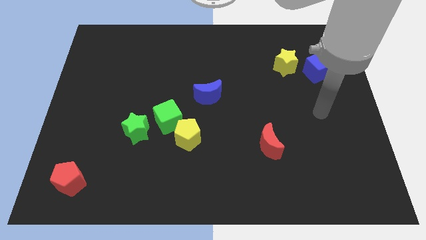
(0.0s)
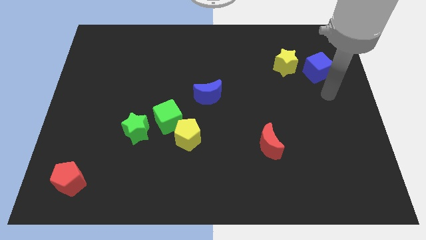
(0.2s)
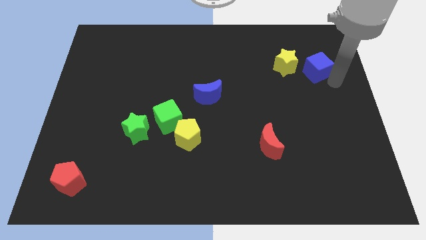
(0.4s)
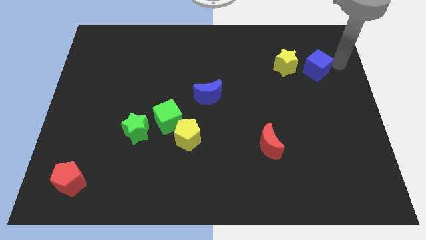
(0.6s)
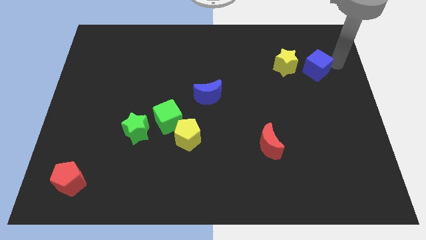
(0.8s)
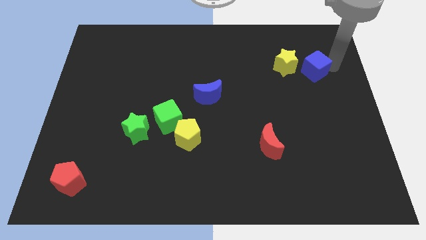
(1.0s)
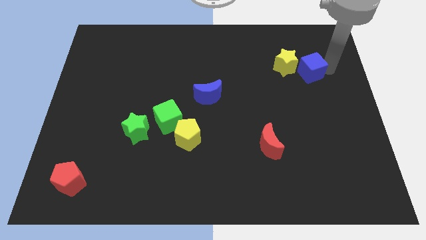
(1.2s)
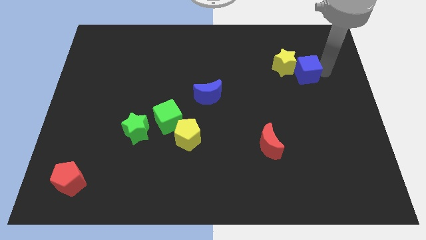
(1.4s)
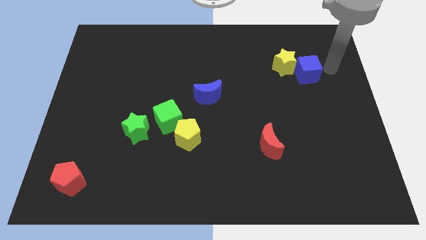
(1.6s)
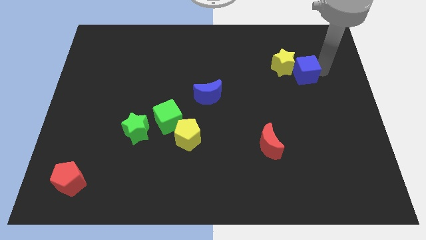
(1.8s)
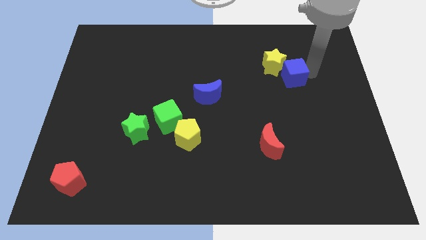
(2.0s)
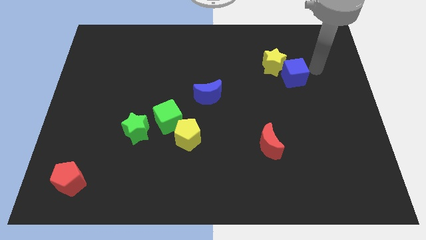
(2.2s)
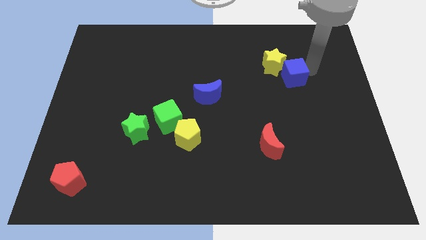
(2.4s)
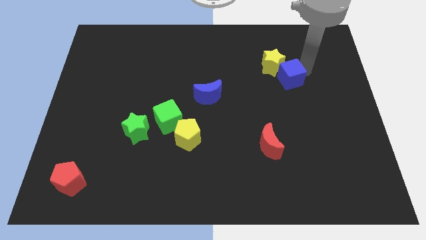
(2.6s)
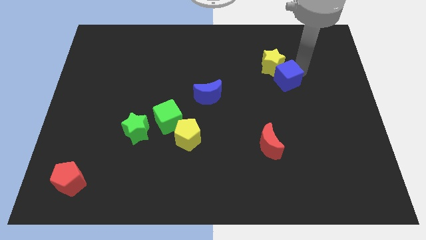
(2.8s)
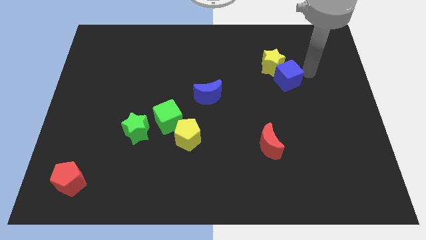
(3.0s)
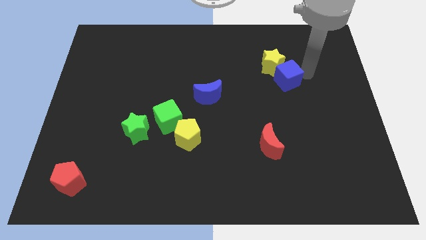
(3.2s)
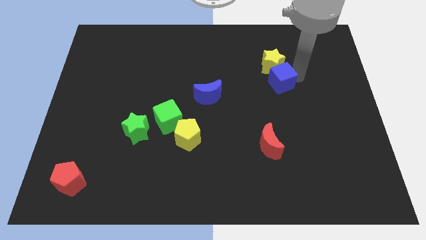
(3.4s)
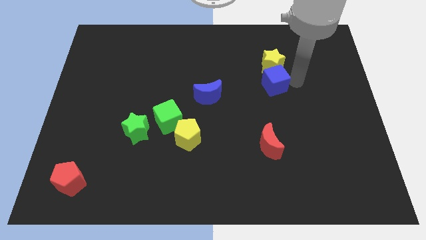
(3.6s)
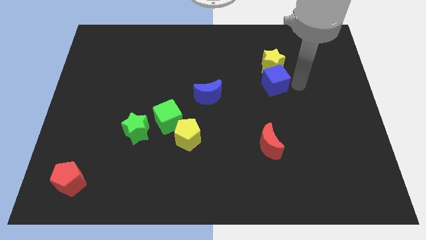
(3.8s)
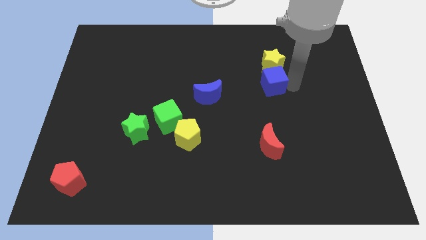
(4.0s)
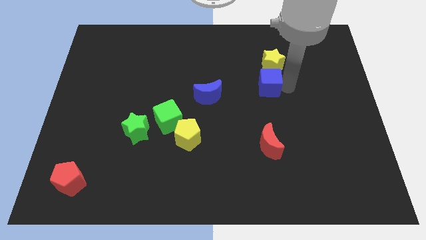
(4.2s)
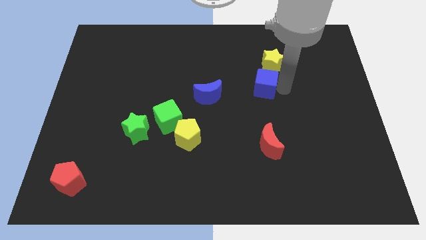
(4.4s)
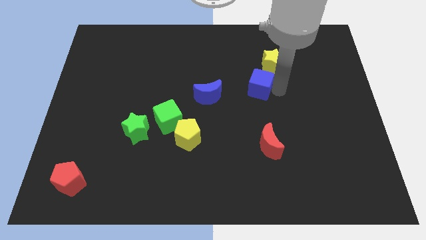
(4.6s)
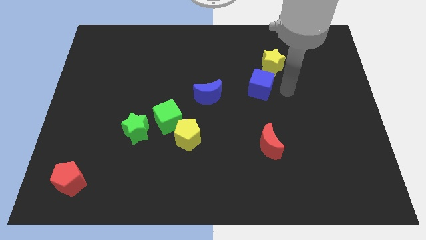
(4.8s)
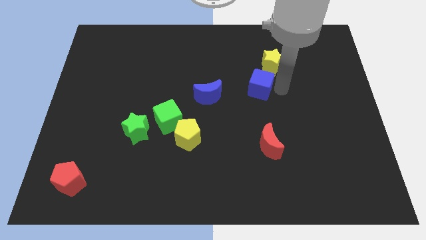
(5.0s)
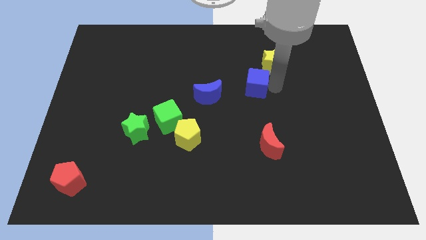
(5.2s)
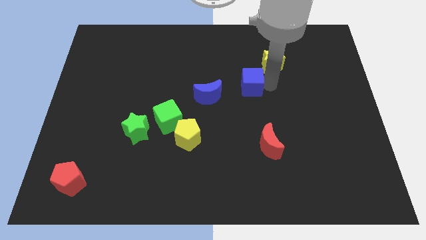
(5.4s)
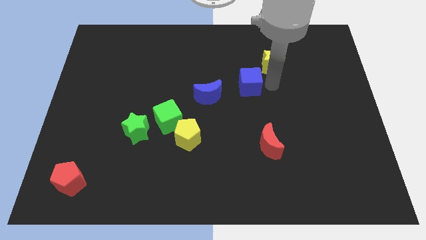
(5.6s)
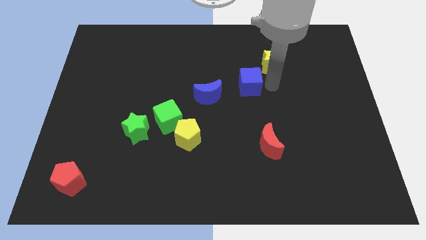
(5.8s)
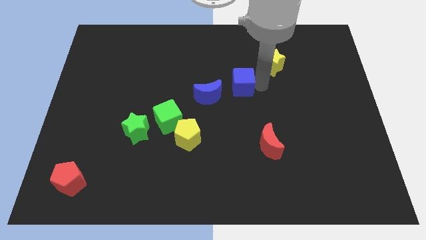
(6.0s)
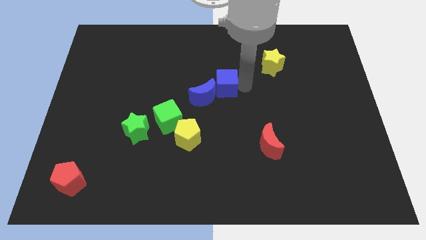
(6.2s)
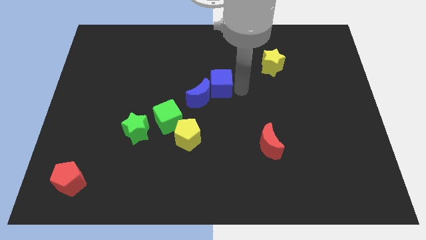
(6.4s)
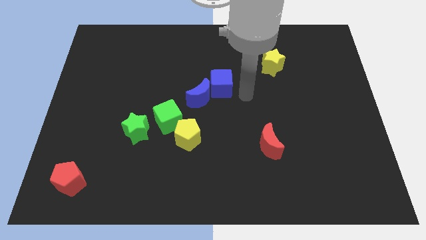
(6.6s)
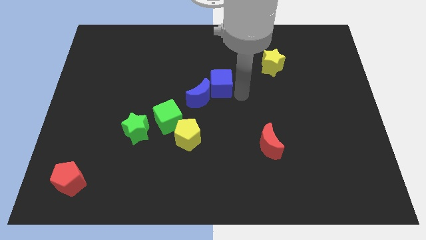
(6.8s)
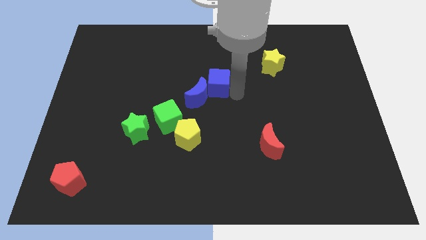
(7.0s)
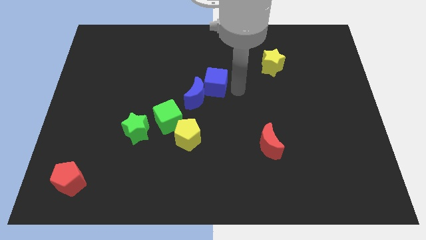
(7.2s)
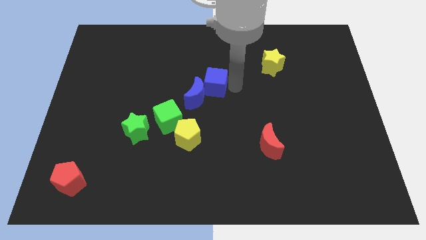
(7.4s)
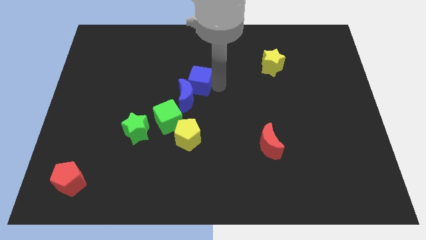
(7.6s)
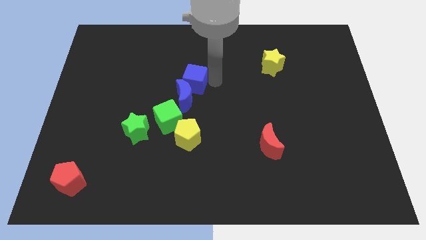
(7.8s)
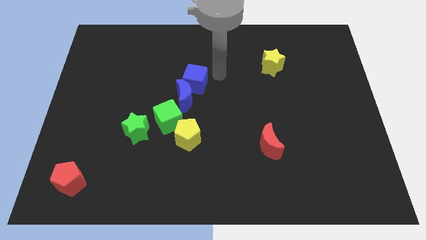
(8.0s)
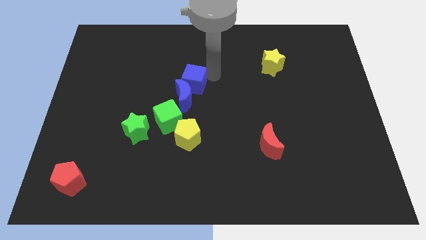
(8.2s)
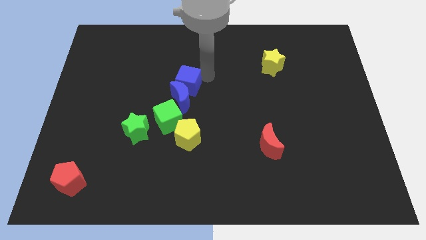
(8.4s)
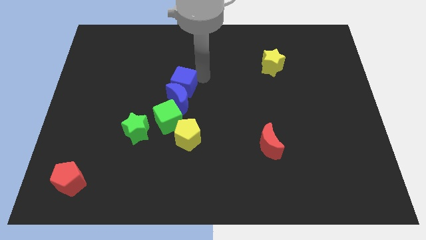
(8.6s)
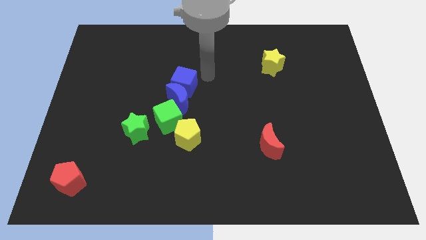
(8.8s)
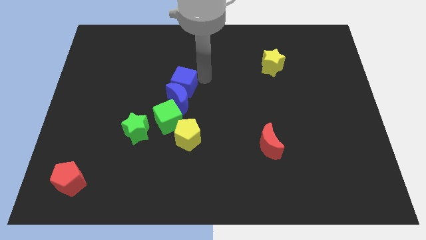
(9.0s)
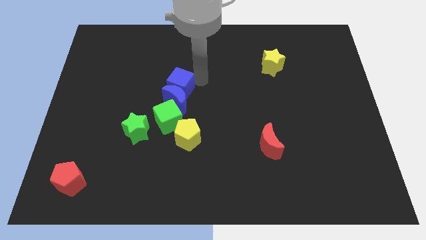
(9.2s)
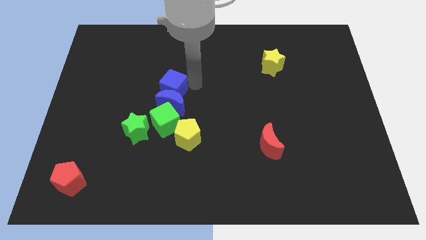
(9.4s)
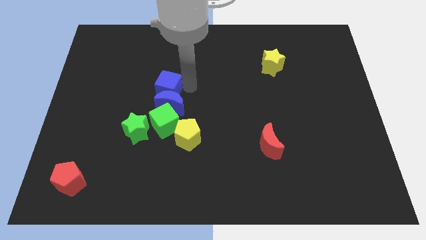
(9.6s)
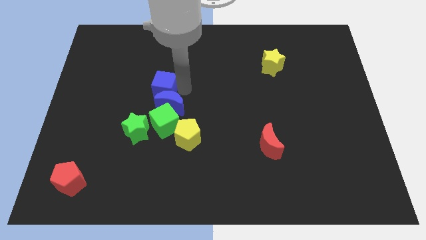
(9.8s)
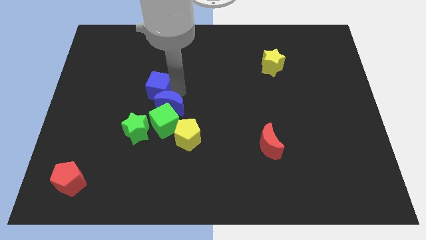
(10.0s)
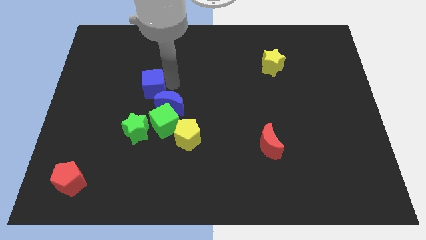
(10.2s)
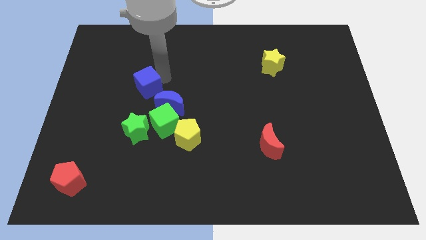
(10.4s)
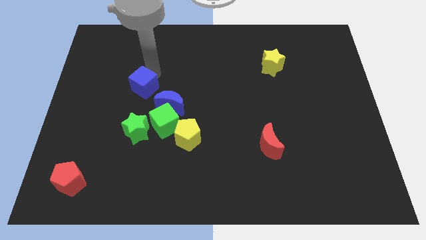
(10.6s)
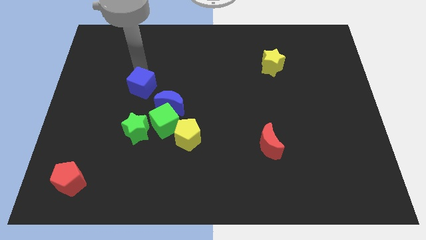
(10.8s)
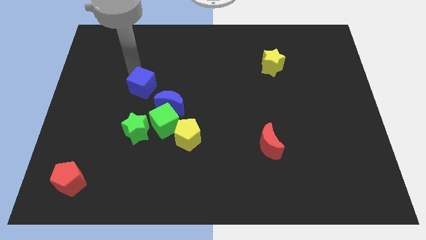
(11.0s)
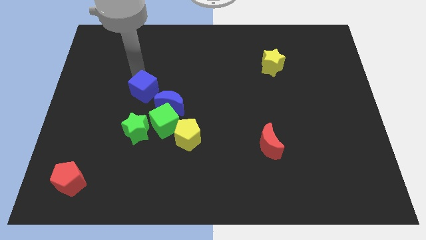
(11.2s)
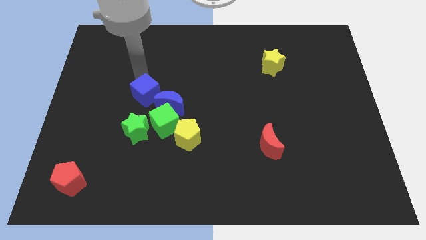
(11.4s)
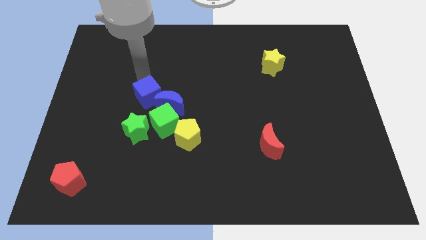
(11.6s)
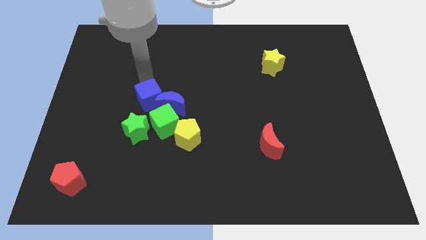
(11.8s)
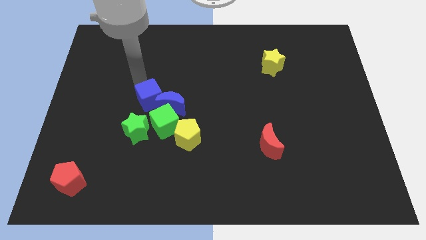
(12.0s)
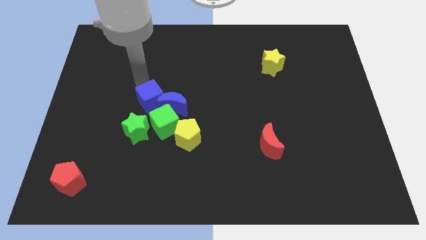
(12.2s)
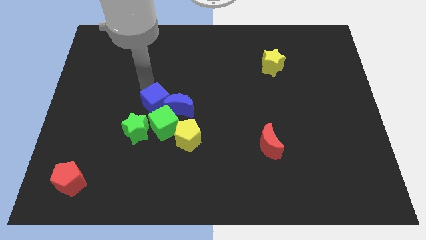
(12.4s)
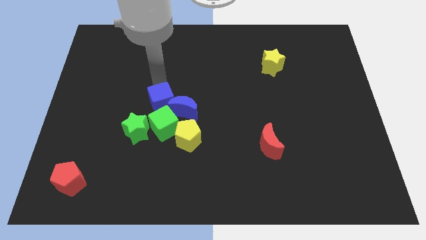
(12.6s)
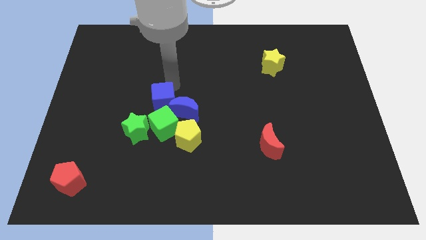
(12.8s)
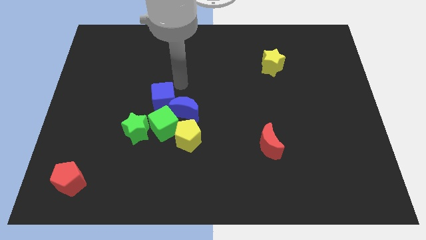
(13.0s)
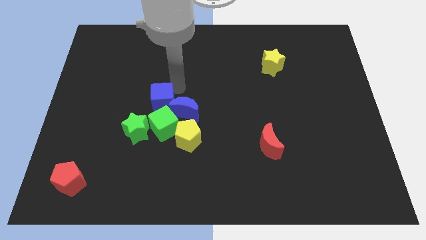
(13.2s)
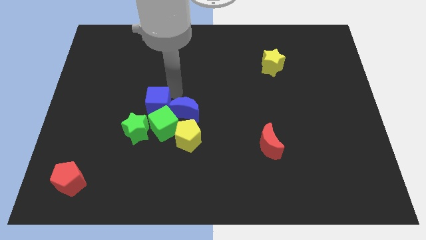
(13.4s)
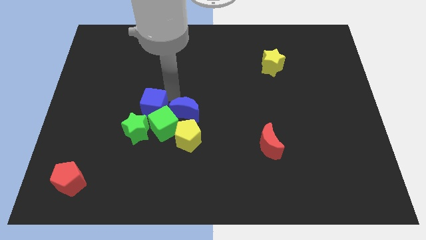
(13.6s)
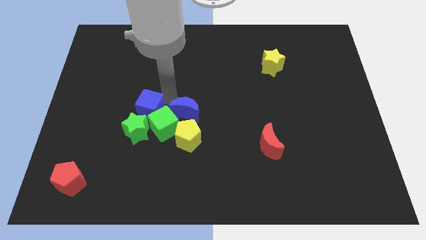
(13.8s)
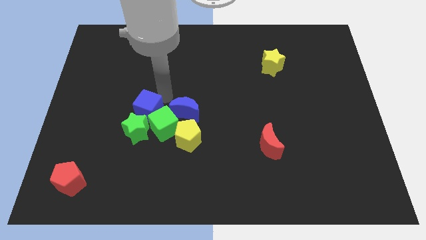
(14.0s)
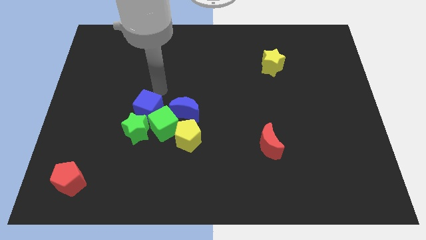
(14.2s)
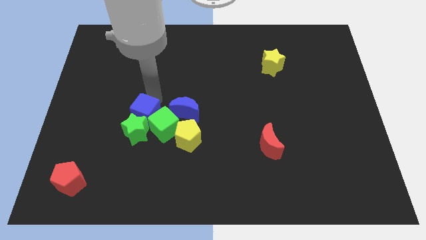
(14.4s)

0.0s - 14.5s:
move the blue cube towards the green star
